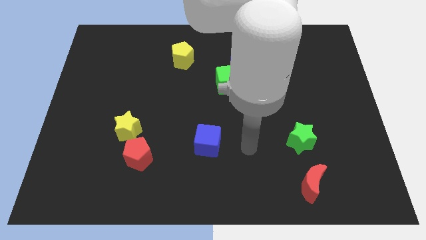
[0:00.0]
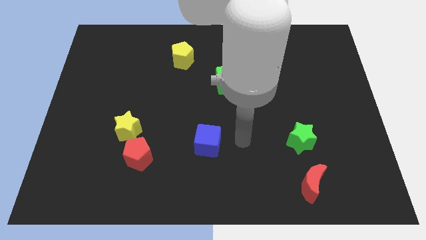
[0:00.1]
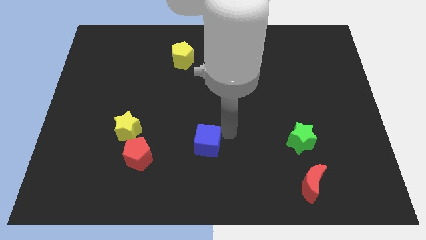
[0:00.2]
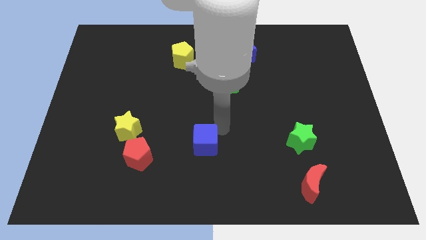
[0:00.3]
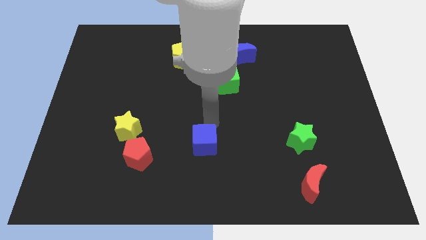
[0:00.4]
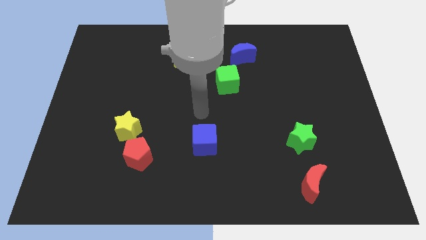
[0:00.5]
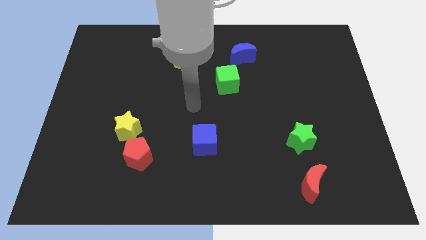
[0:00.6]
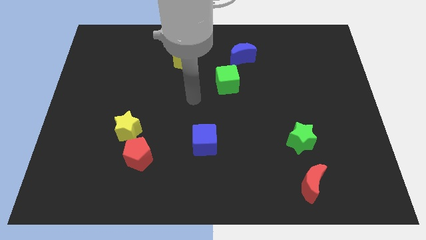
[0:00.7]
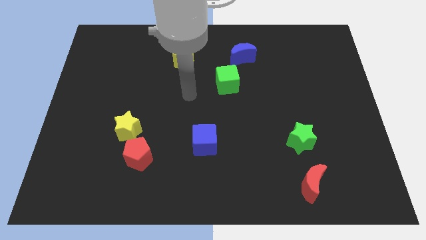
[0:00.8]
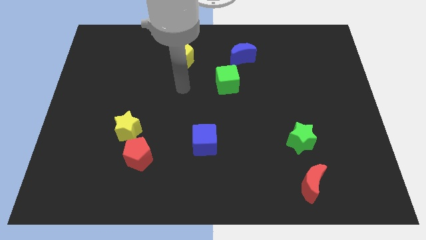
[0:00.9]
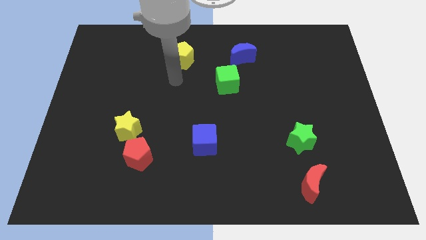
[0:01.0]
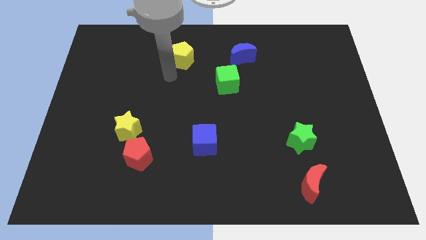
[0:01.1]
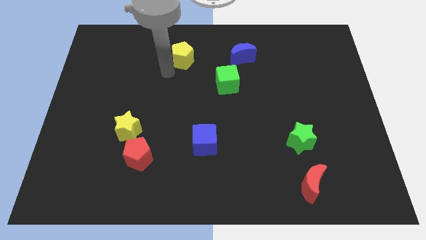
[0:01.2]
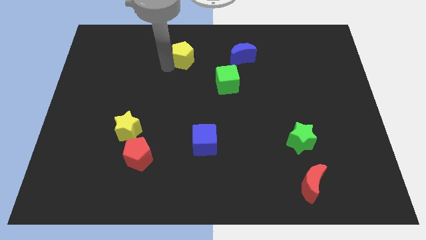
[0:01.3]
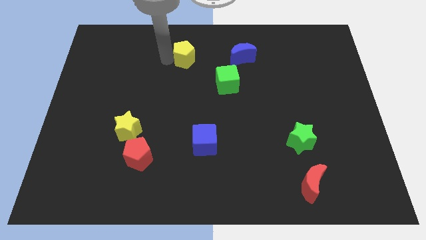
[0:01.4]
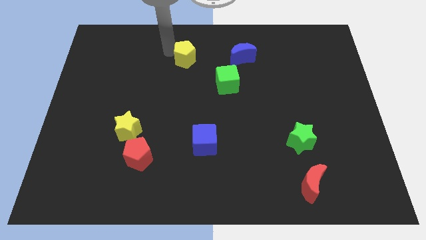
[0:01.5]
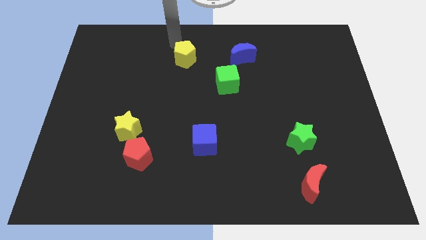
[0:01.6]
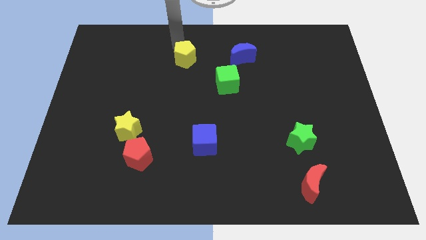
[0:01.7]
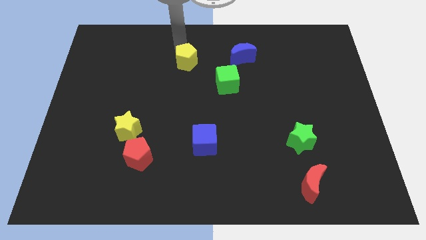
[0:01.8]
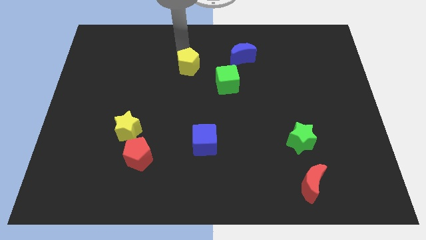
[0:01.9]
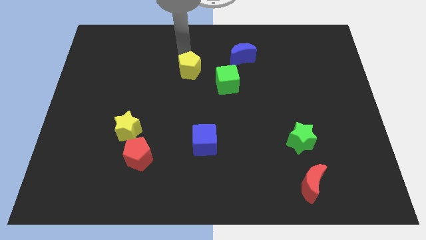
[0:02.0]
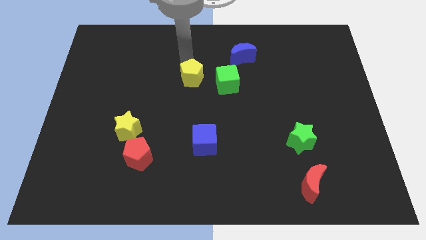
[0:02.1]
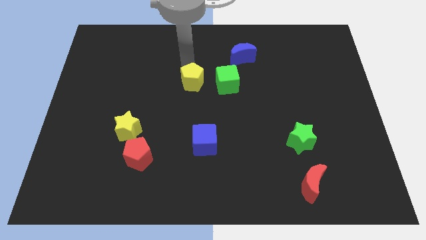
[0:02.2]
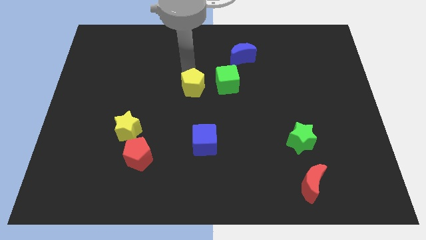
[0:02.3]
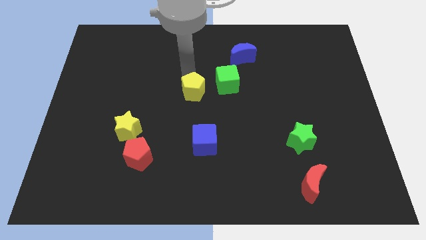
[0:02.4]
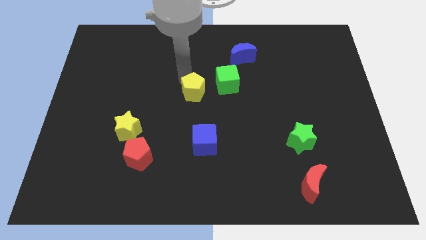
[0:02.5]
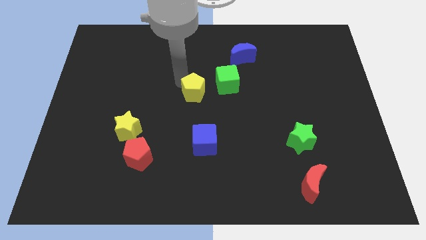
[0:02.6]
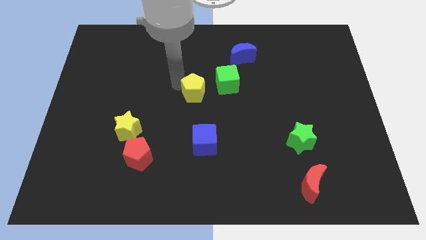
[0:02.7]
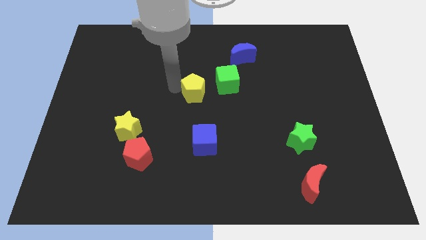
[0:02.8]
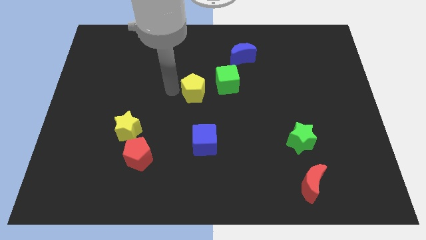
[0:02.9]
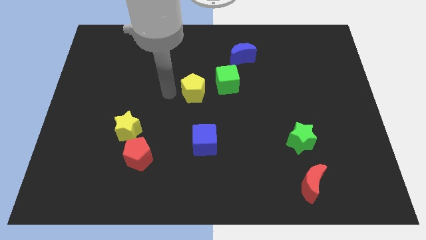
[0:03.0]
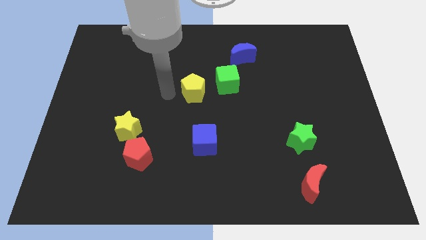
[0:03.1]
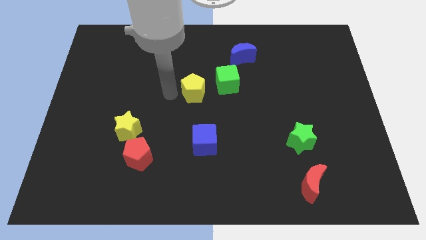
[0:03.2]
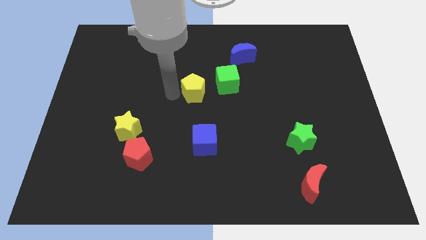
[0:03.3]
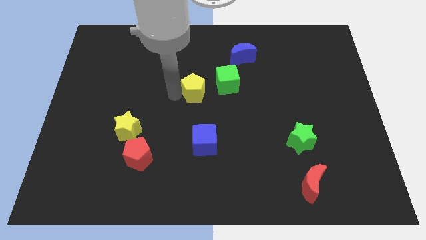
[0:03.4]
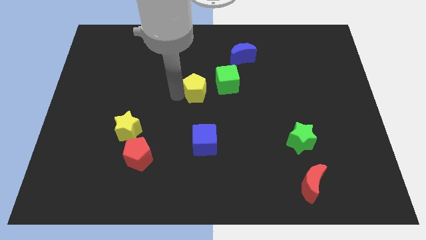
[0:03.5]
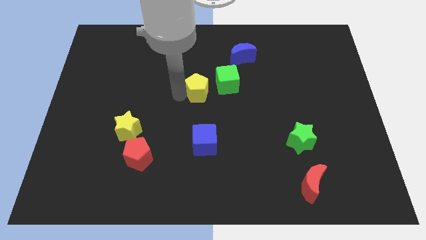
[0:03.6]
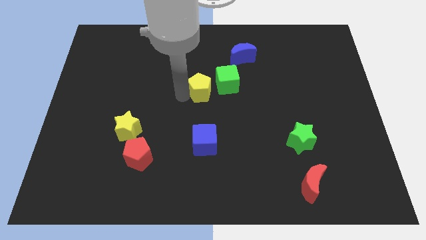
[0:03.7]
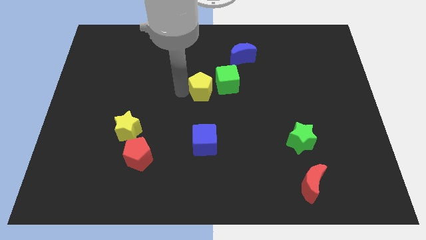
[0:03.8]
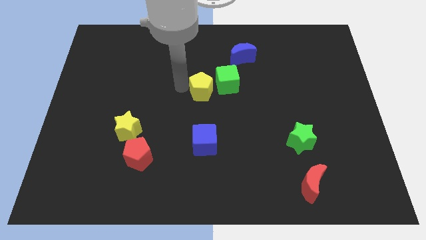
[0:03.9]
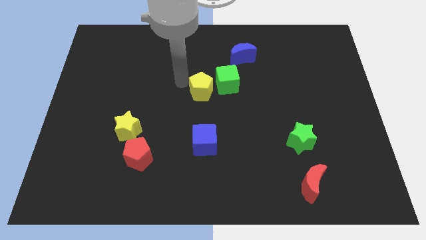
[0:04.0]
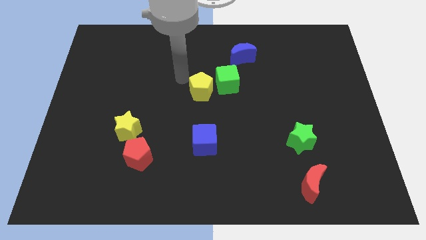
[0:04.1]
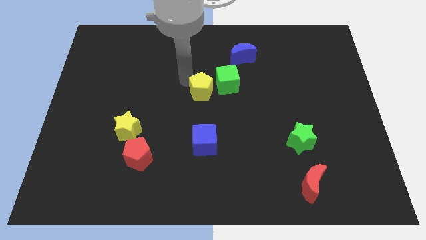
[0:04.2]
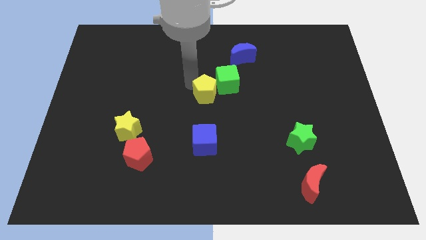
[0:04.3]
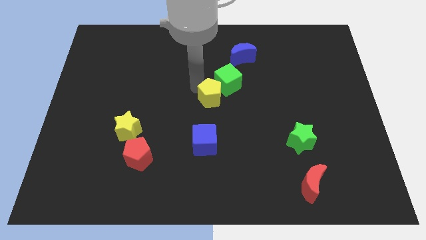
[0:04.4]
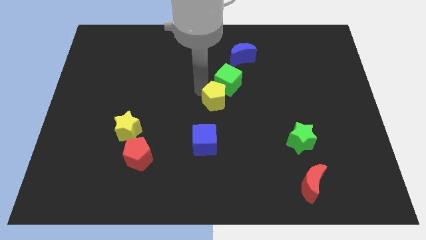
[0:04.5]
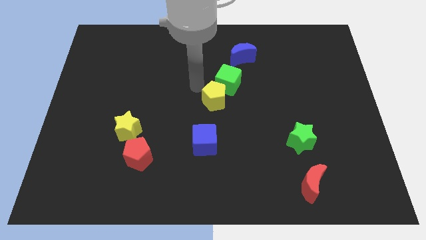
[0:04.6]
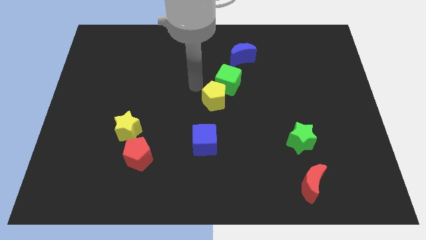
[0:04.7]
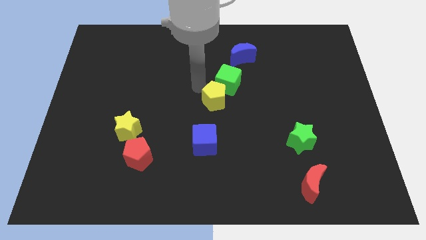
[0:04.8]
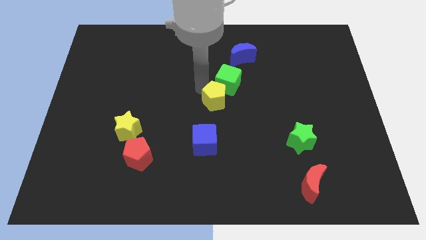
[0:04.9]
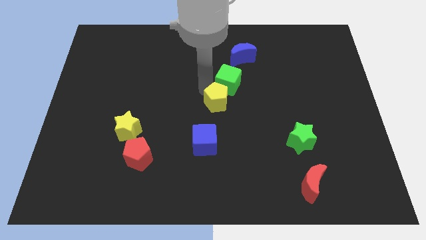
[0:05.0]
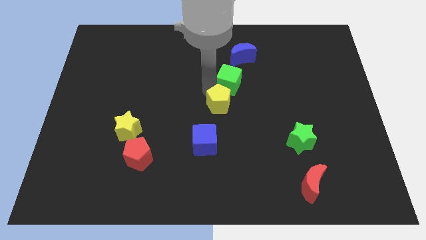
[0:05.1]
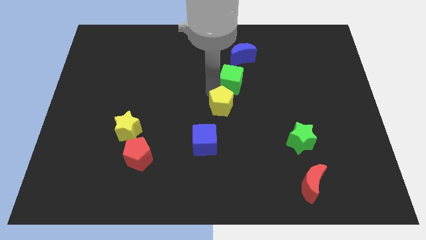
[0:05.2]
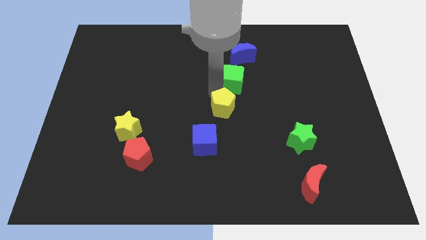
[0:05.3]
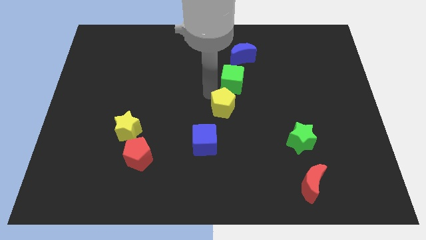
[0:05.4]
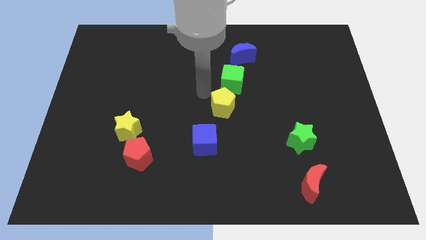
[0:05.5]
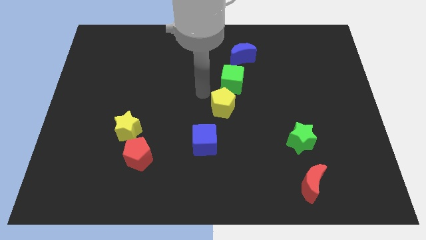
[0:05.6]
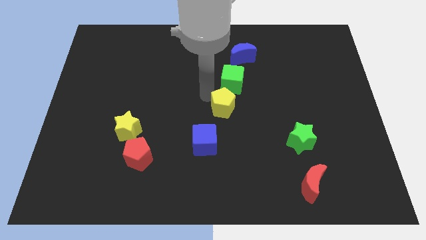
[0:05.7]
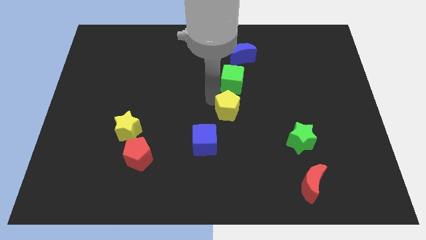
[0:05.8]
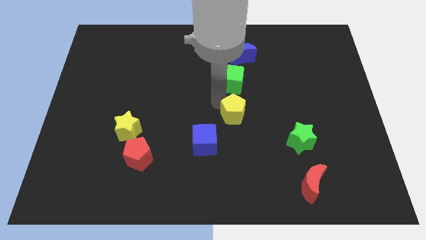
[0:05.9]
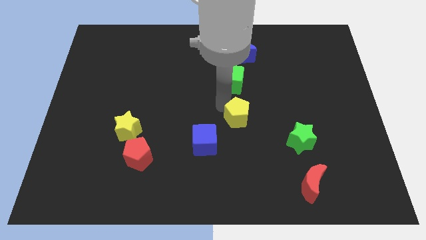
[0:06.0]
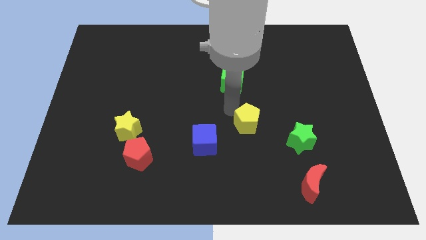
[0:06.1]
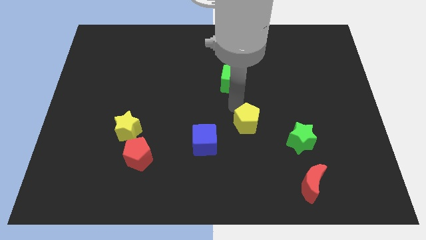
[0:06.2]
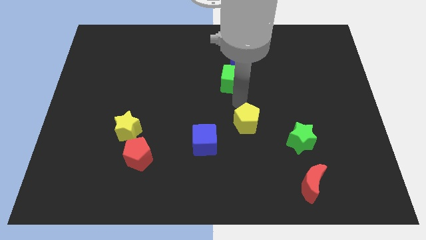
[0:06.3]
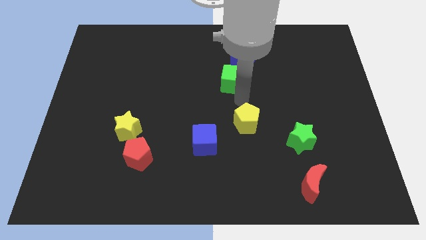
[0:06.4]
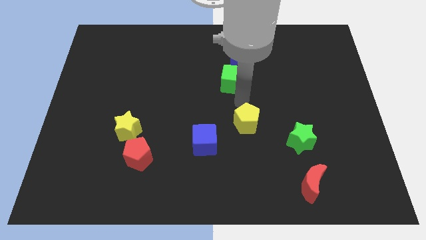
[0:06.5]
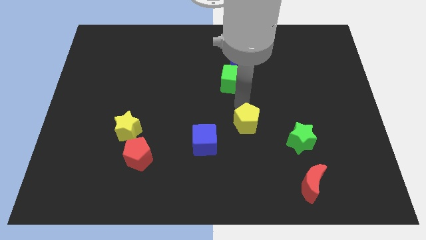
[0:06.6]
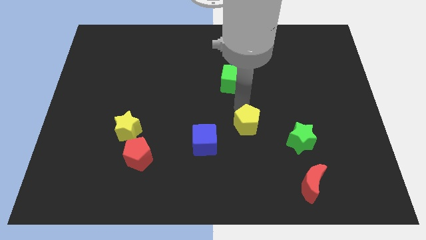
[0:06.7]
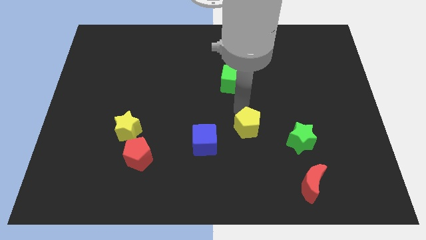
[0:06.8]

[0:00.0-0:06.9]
slide the yellow pentagon right of the blue cube

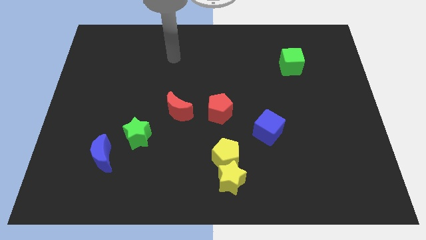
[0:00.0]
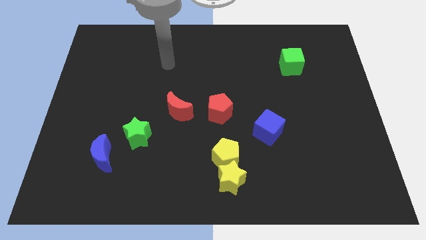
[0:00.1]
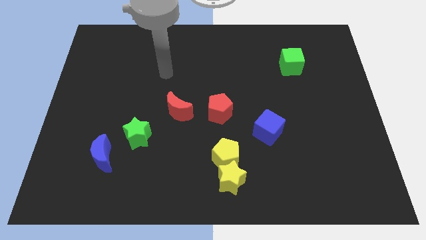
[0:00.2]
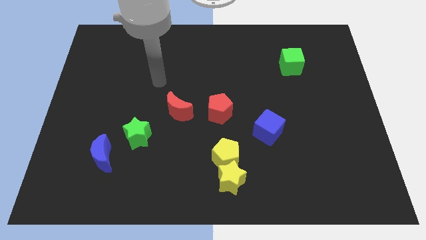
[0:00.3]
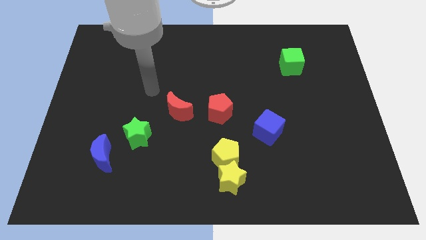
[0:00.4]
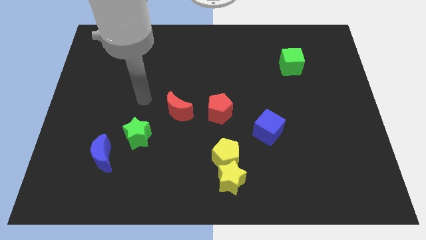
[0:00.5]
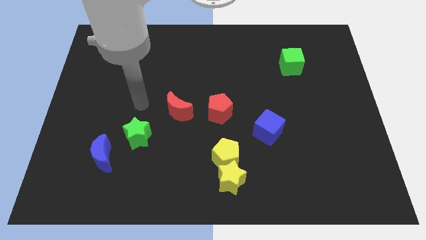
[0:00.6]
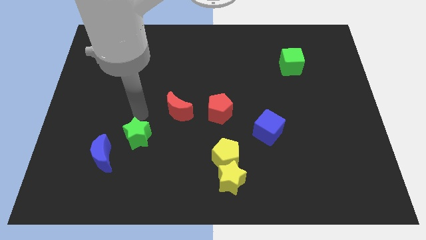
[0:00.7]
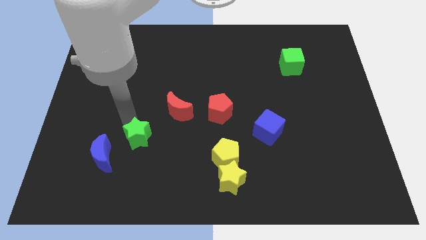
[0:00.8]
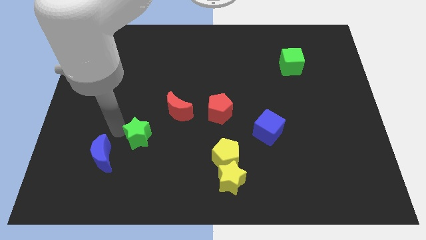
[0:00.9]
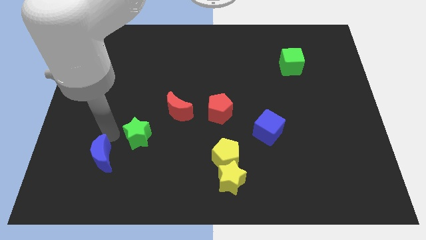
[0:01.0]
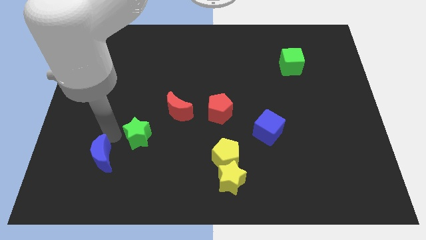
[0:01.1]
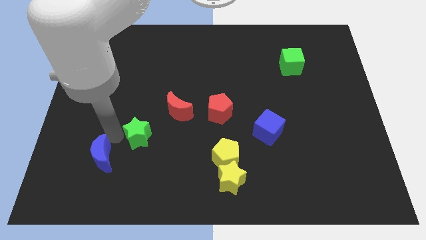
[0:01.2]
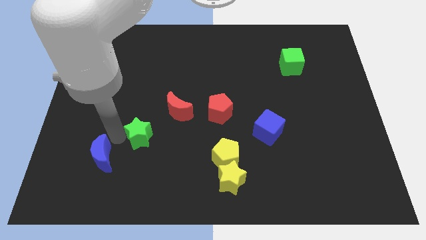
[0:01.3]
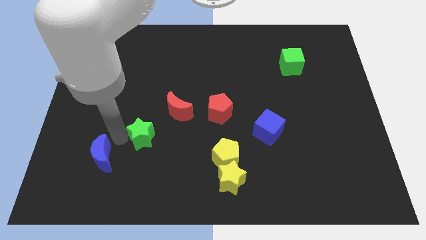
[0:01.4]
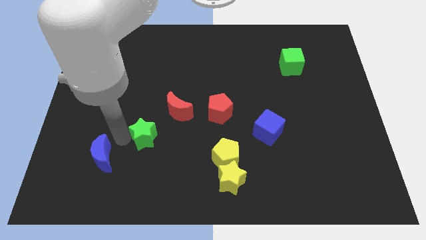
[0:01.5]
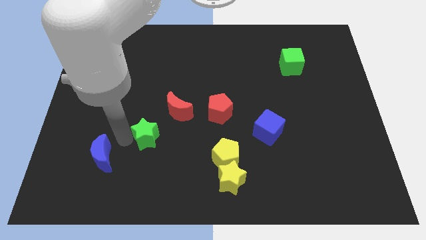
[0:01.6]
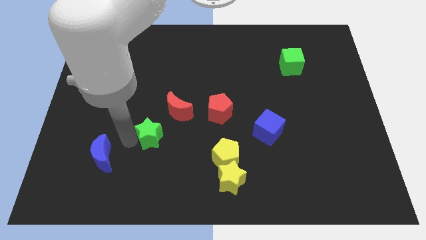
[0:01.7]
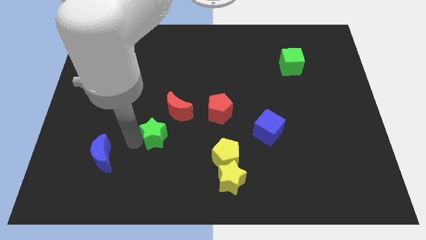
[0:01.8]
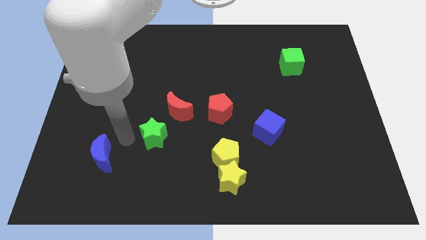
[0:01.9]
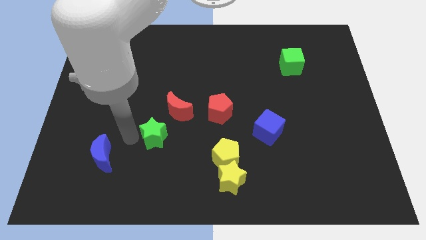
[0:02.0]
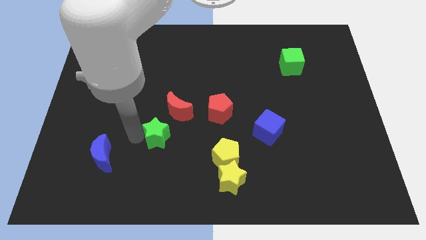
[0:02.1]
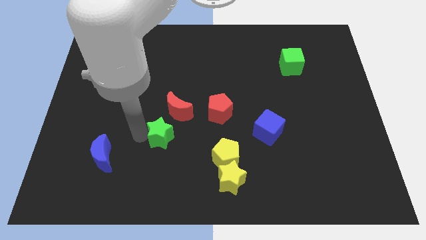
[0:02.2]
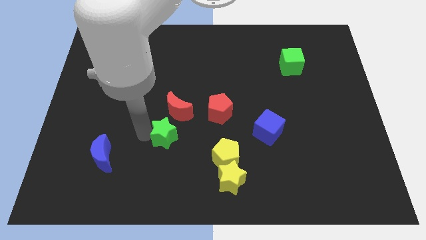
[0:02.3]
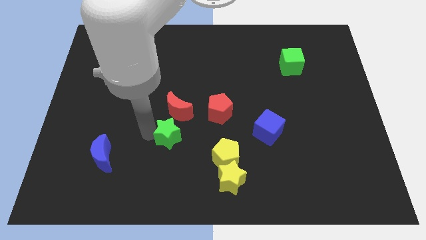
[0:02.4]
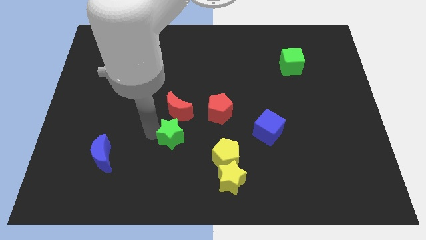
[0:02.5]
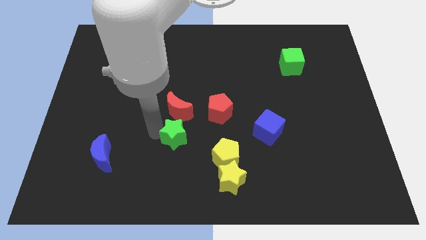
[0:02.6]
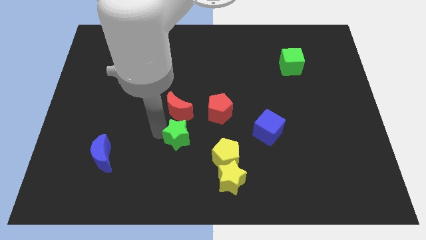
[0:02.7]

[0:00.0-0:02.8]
push the green star to the top left of the yellow pentagon
